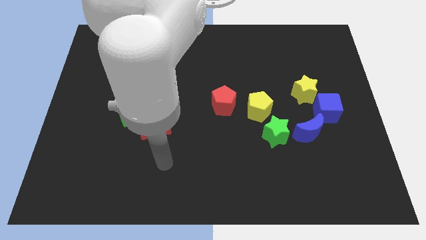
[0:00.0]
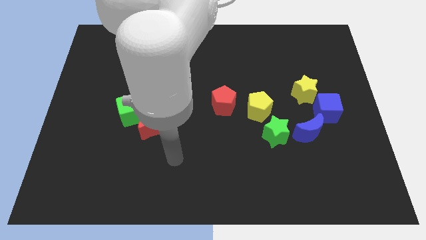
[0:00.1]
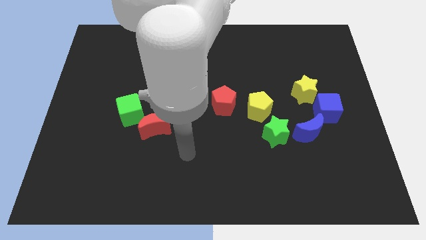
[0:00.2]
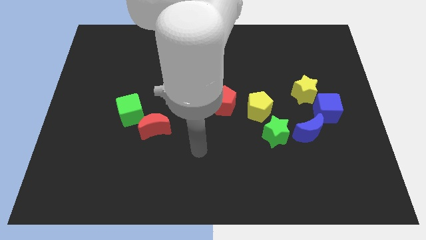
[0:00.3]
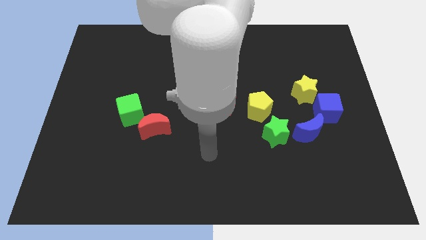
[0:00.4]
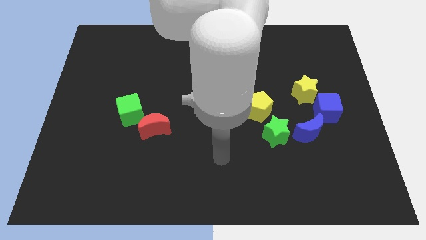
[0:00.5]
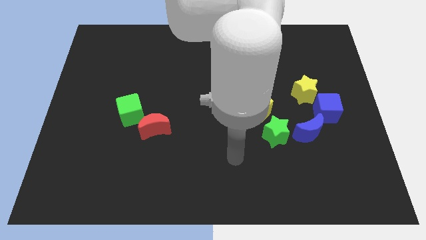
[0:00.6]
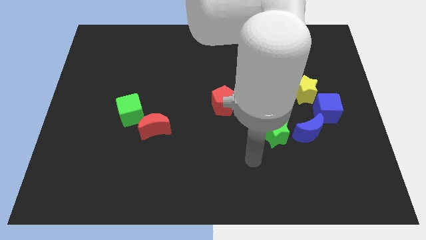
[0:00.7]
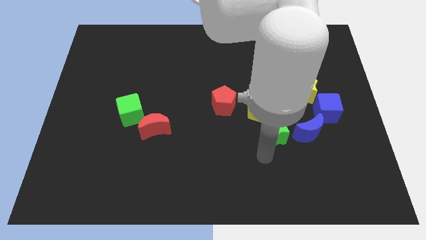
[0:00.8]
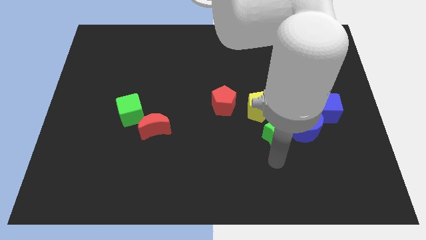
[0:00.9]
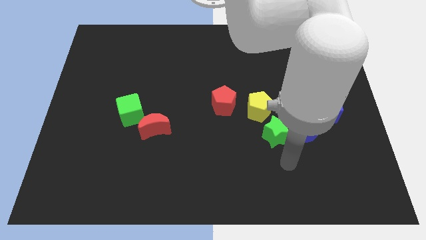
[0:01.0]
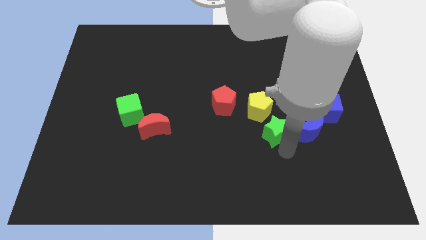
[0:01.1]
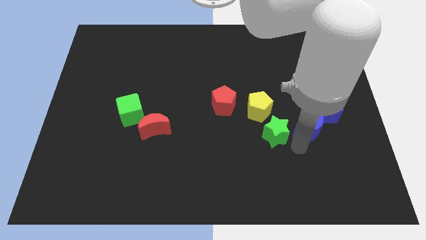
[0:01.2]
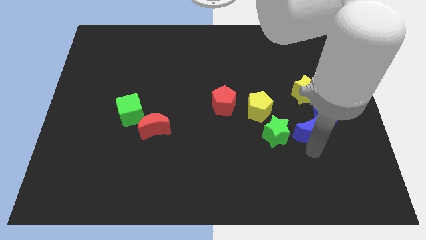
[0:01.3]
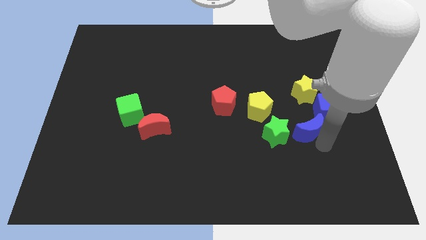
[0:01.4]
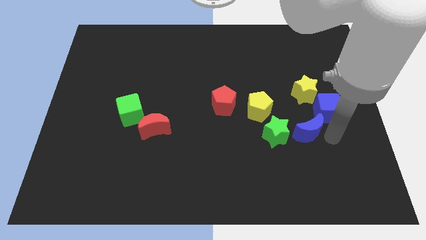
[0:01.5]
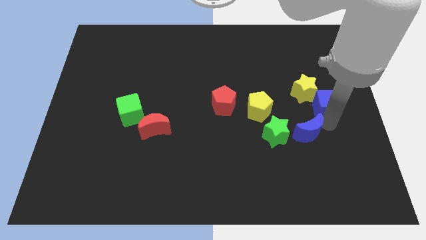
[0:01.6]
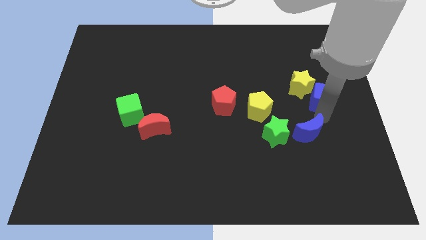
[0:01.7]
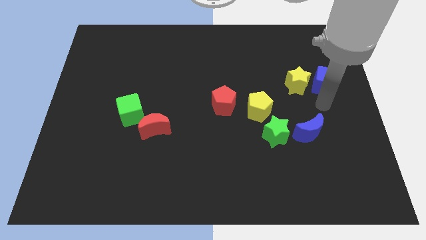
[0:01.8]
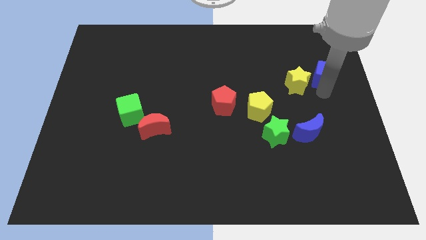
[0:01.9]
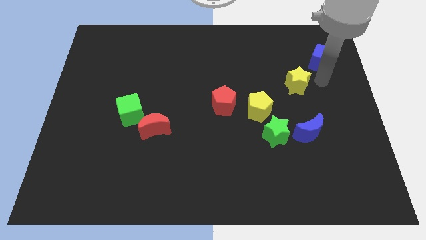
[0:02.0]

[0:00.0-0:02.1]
pull the yellow star apart from the blue cube

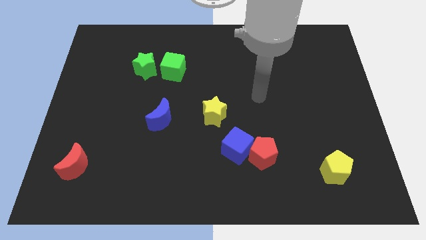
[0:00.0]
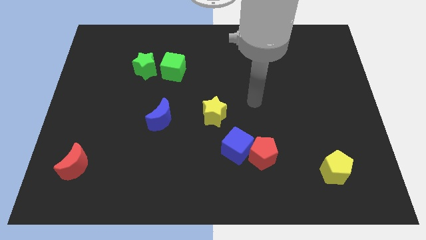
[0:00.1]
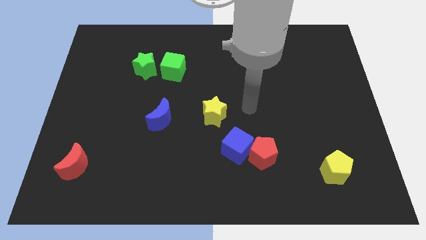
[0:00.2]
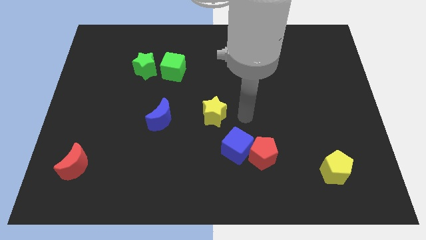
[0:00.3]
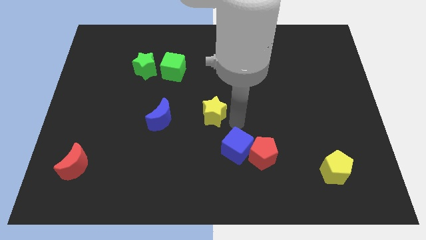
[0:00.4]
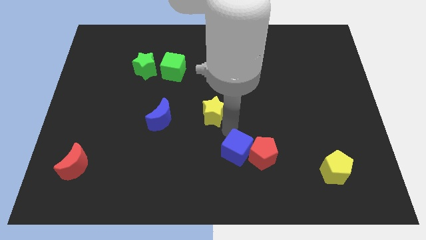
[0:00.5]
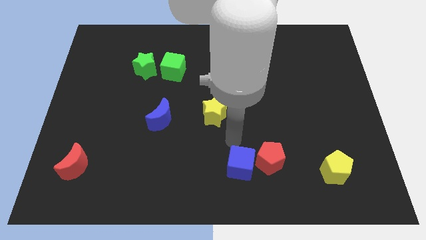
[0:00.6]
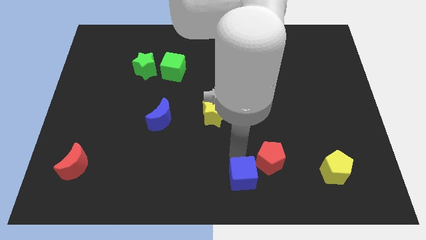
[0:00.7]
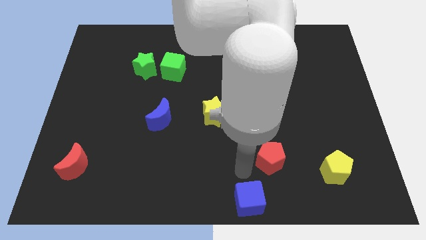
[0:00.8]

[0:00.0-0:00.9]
separate the red pentagon from the blue cube

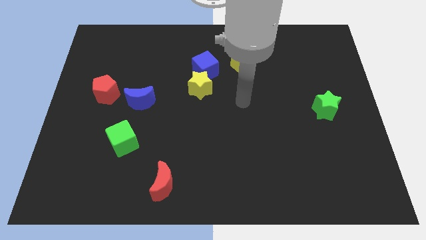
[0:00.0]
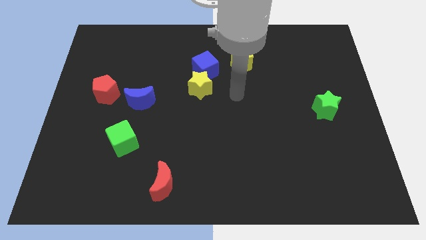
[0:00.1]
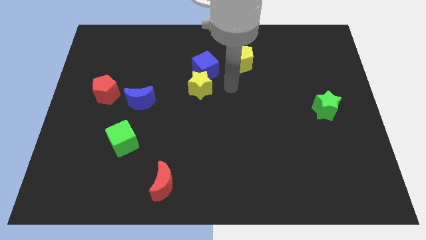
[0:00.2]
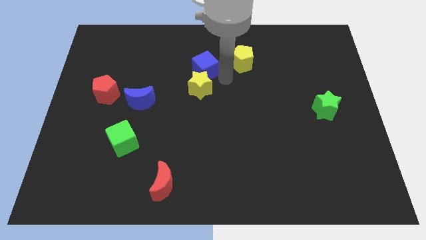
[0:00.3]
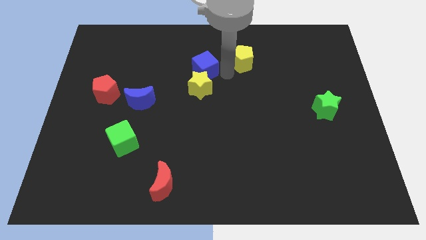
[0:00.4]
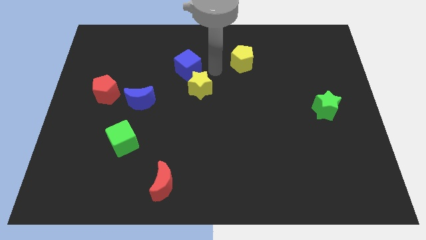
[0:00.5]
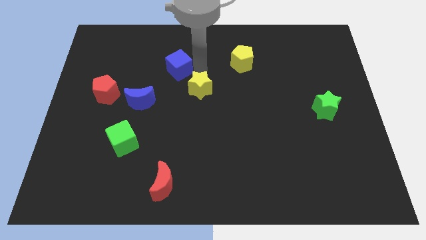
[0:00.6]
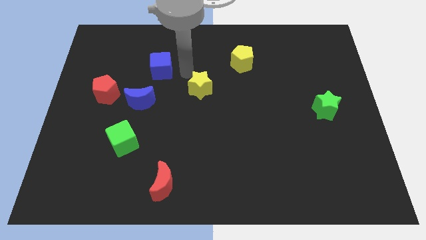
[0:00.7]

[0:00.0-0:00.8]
separate the yellow star from the blue cube

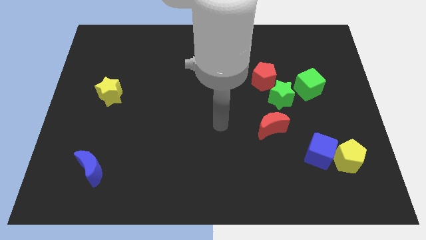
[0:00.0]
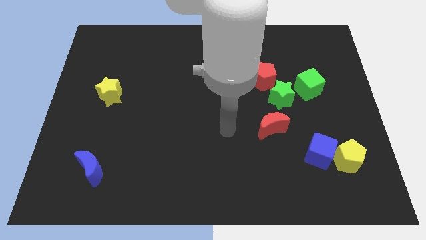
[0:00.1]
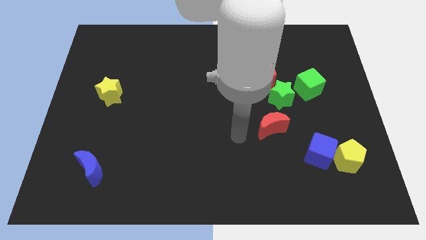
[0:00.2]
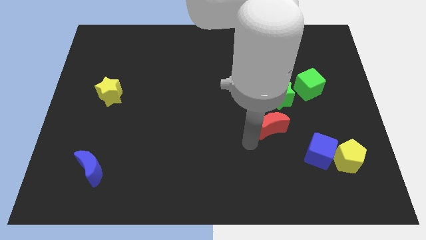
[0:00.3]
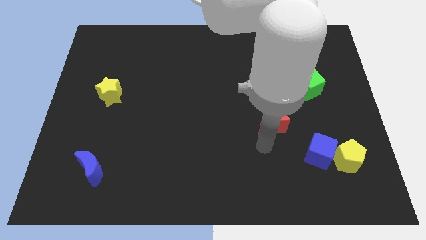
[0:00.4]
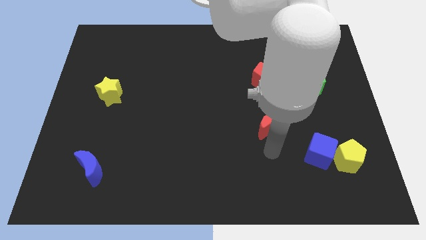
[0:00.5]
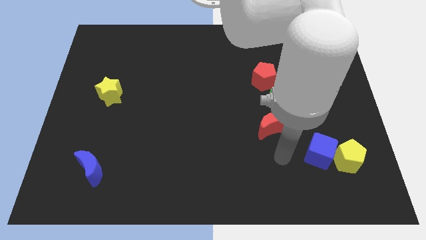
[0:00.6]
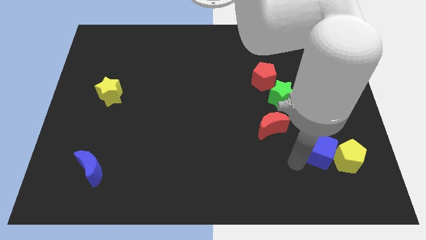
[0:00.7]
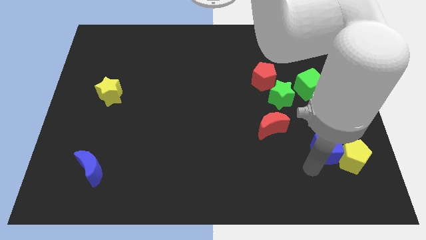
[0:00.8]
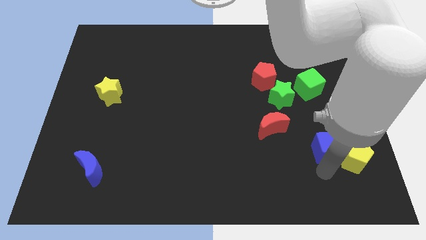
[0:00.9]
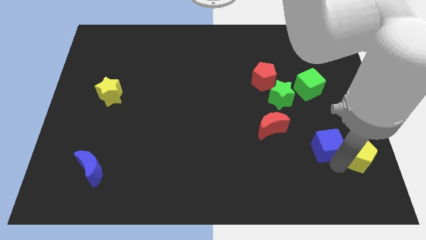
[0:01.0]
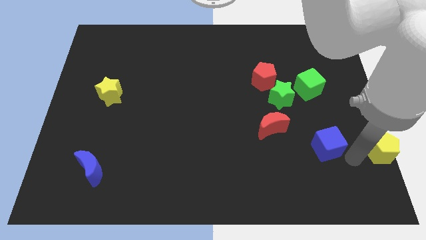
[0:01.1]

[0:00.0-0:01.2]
separate the blue cube from the yellow pentagon

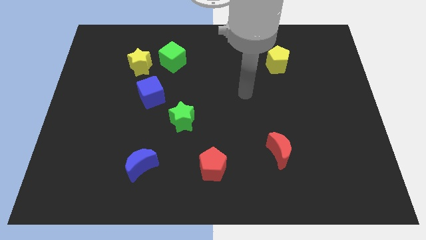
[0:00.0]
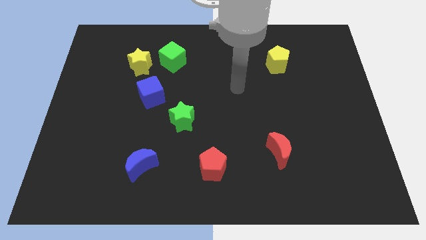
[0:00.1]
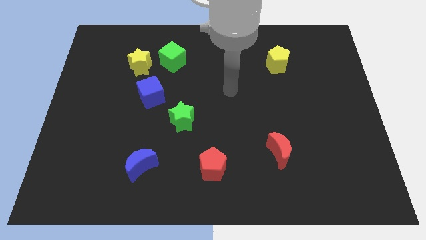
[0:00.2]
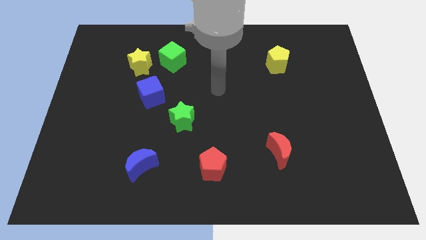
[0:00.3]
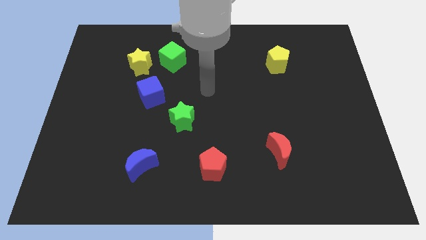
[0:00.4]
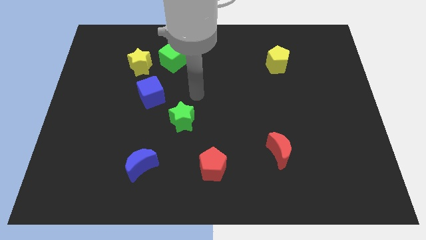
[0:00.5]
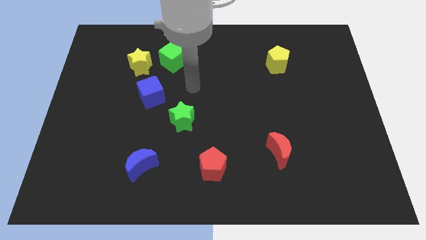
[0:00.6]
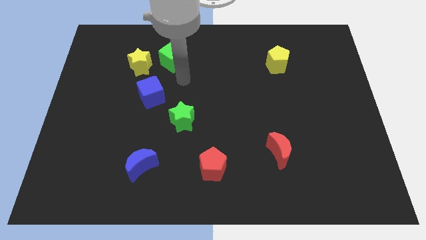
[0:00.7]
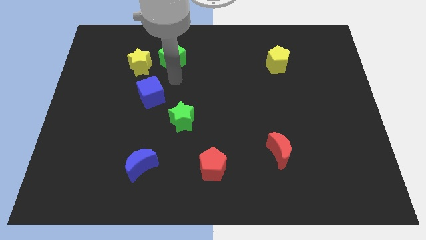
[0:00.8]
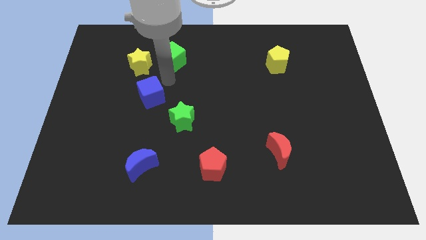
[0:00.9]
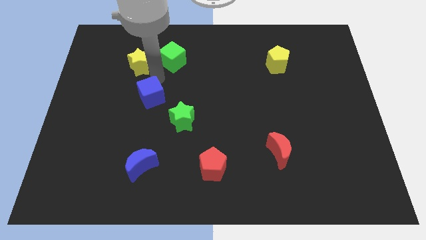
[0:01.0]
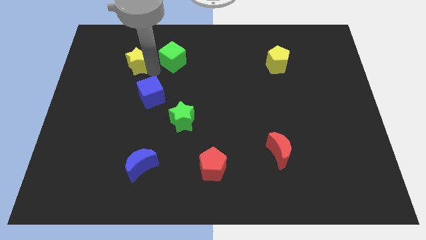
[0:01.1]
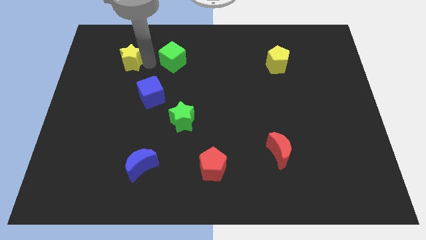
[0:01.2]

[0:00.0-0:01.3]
move the green cube away from the yellow star

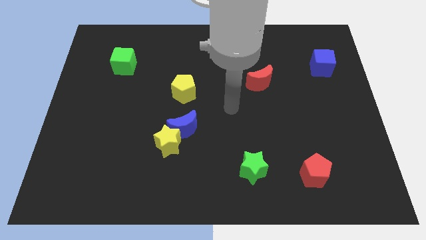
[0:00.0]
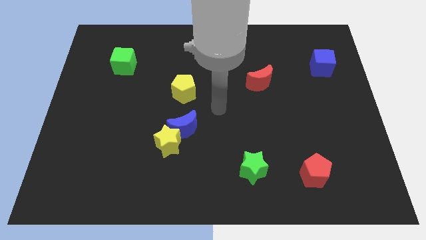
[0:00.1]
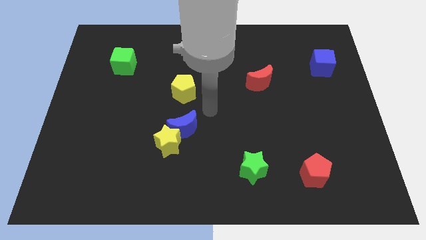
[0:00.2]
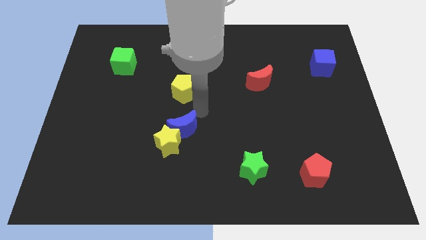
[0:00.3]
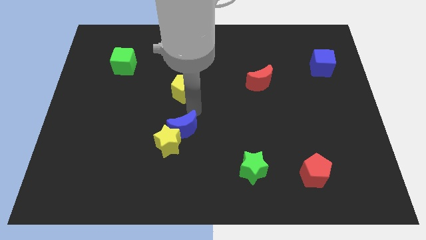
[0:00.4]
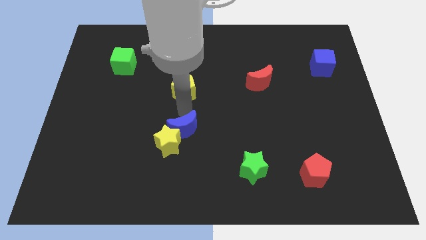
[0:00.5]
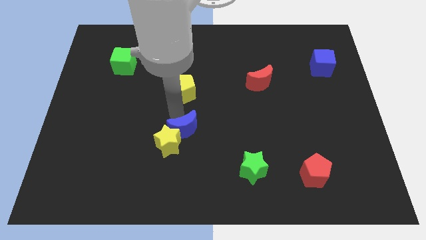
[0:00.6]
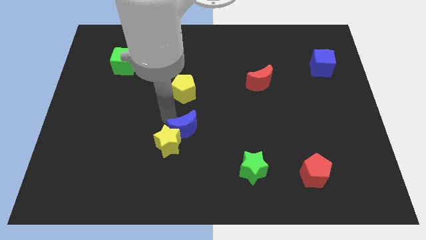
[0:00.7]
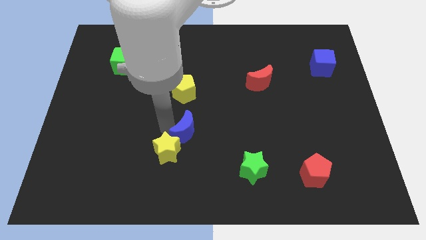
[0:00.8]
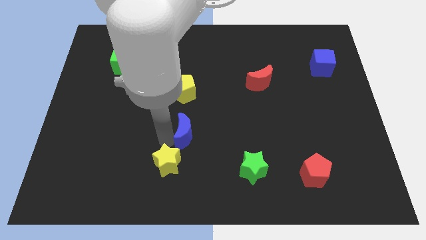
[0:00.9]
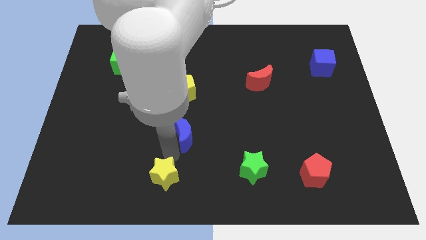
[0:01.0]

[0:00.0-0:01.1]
pull the blue moon apart from the yellow star

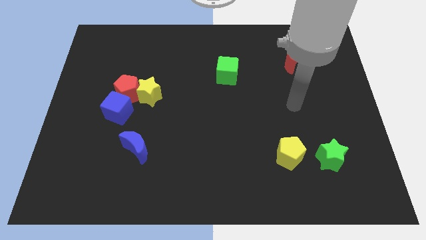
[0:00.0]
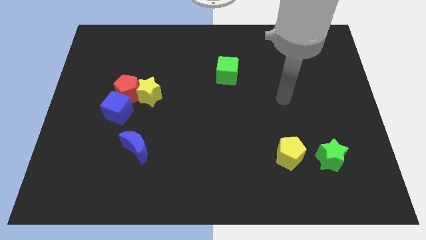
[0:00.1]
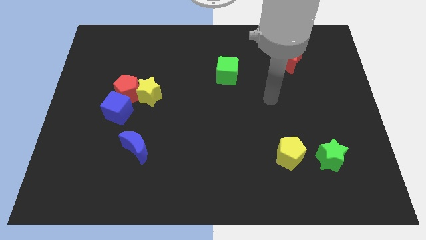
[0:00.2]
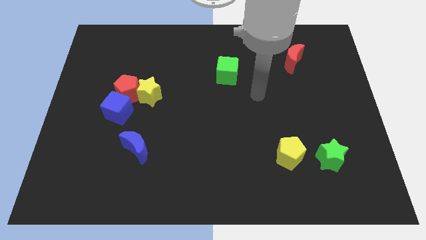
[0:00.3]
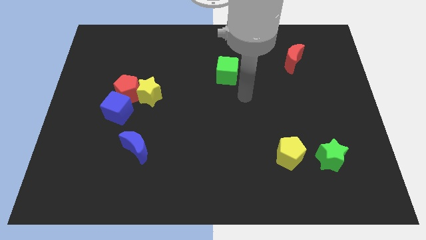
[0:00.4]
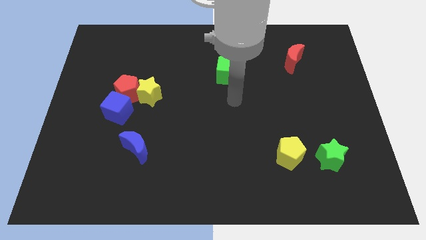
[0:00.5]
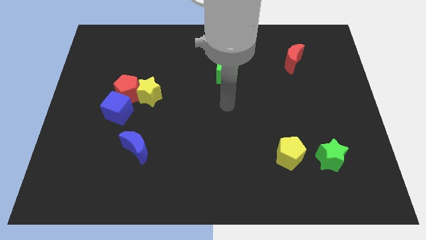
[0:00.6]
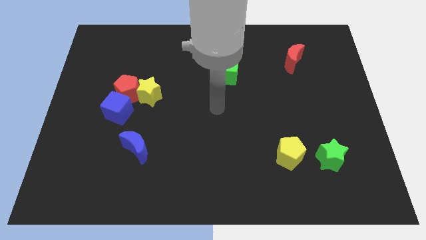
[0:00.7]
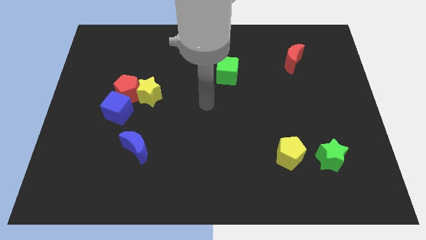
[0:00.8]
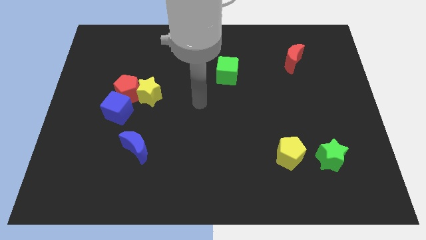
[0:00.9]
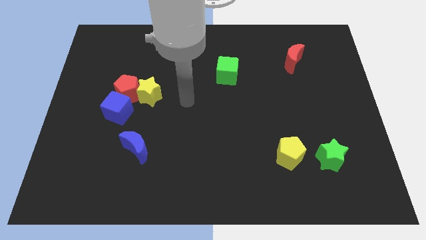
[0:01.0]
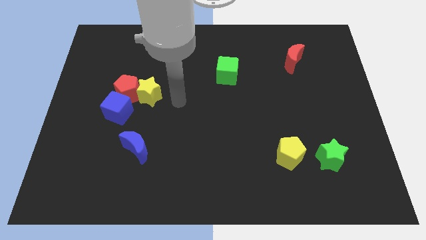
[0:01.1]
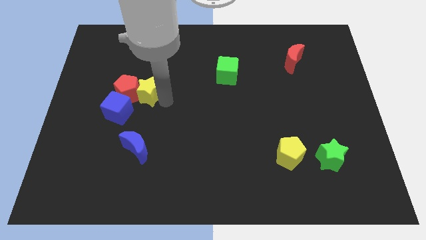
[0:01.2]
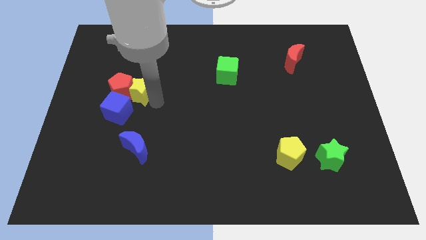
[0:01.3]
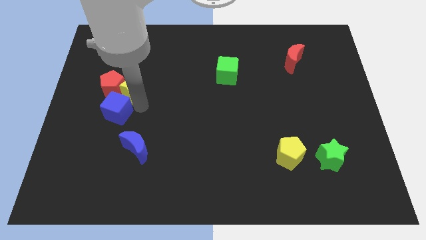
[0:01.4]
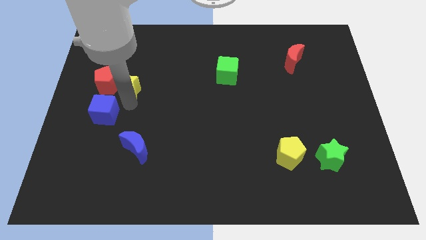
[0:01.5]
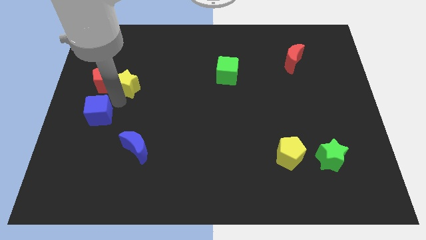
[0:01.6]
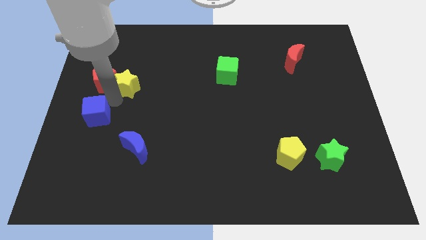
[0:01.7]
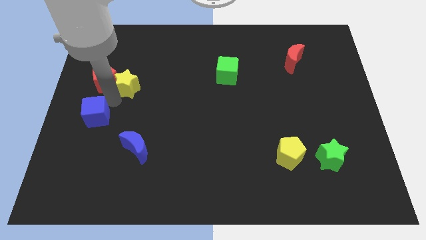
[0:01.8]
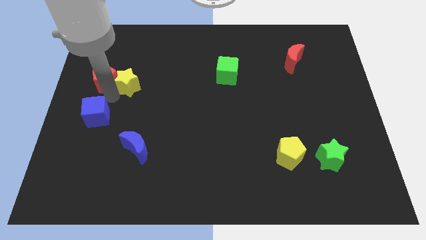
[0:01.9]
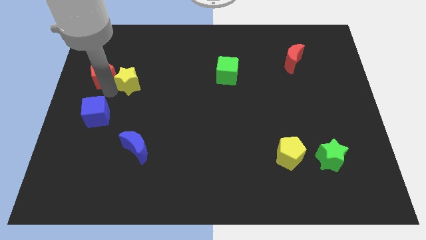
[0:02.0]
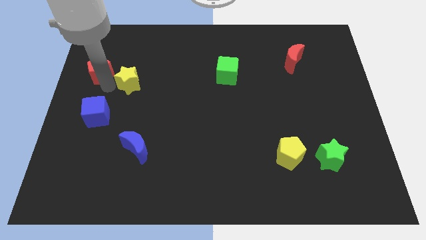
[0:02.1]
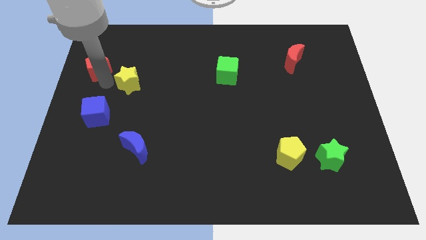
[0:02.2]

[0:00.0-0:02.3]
pull the red pentagon apart from the yellow star and blue cube
